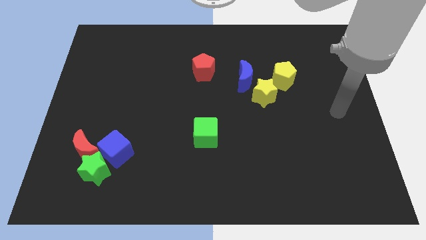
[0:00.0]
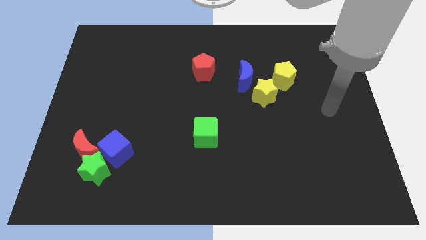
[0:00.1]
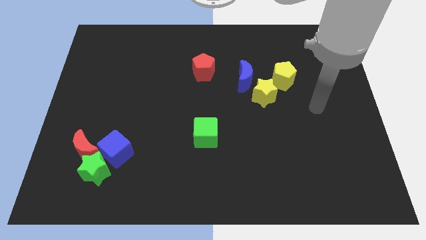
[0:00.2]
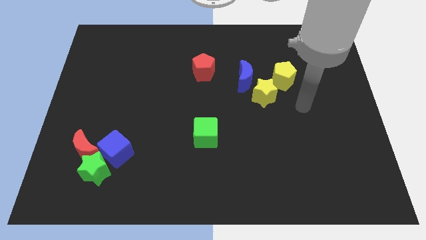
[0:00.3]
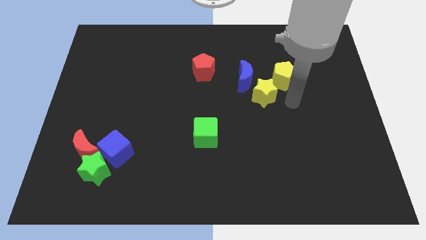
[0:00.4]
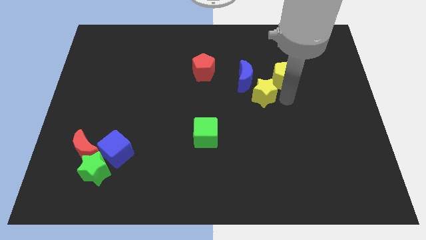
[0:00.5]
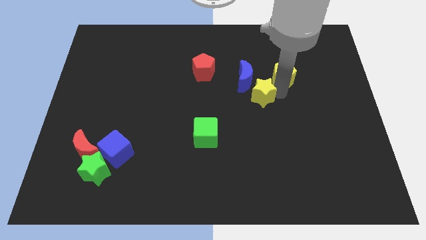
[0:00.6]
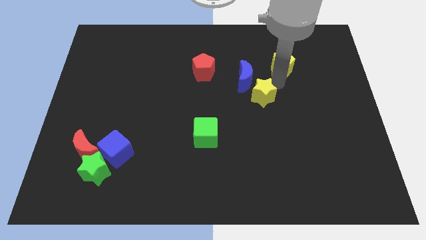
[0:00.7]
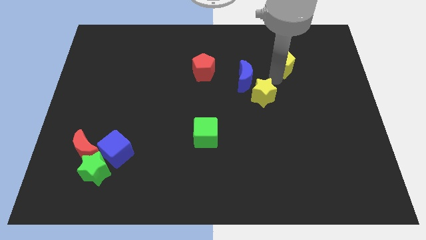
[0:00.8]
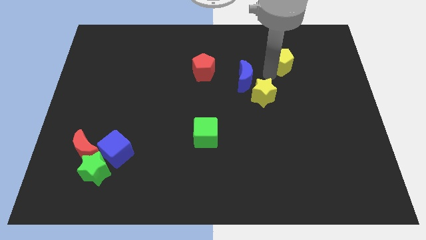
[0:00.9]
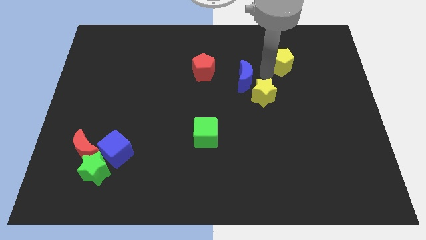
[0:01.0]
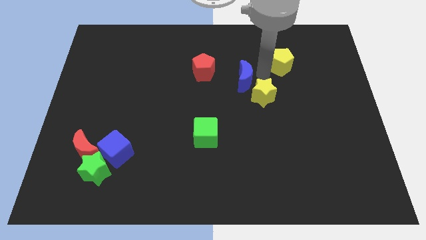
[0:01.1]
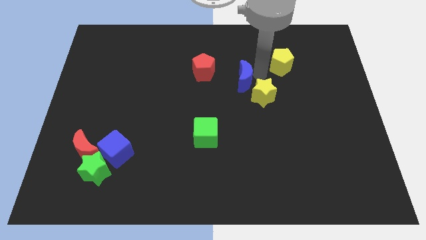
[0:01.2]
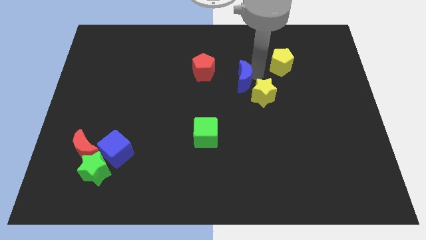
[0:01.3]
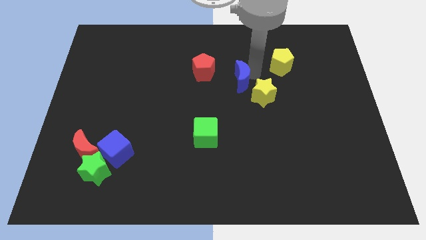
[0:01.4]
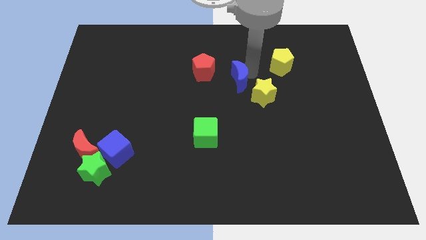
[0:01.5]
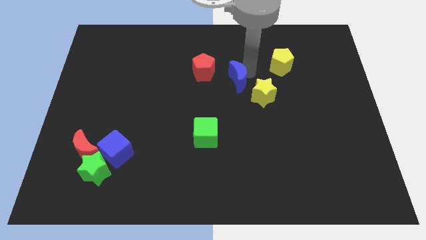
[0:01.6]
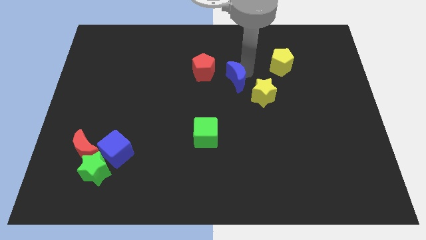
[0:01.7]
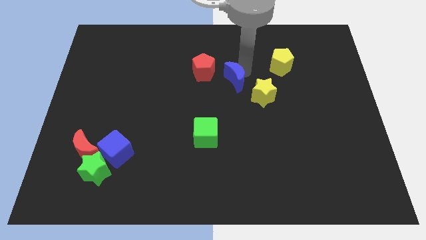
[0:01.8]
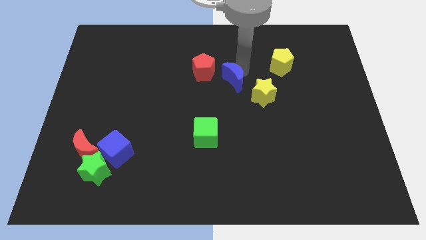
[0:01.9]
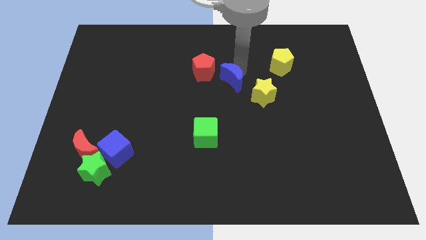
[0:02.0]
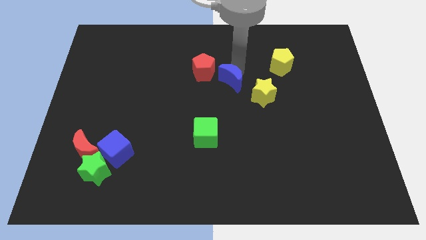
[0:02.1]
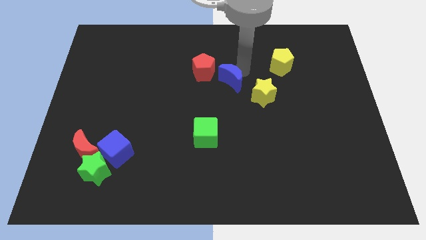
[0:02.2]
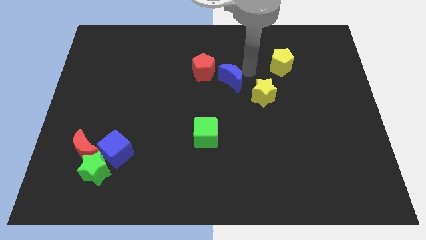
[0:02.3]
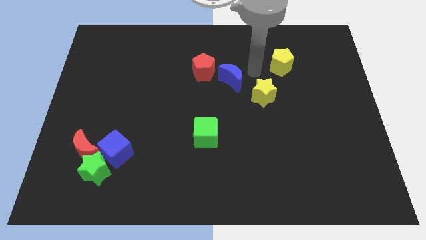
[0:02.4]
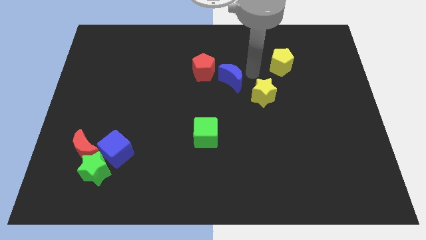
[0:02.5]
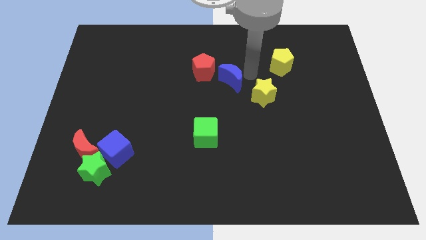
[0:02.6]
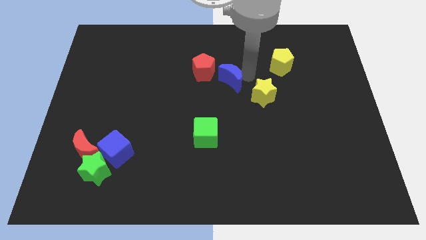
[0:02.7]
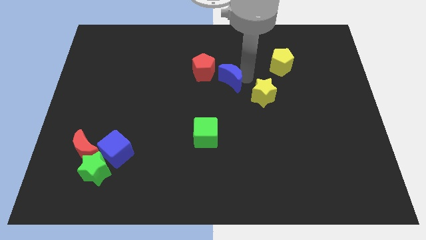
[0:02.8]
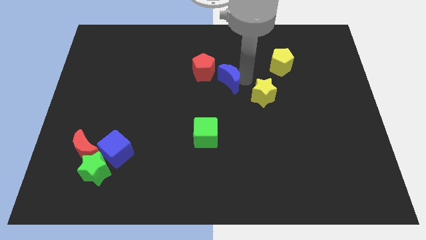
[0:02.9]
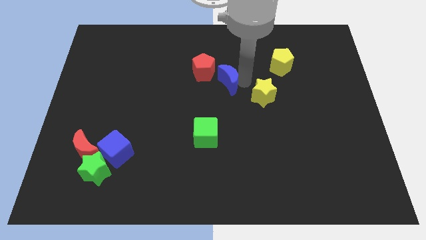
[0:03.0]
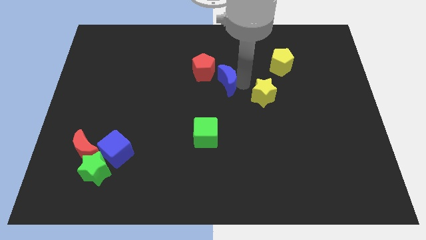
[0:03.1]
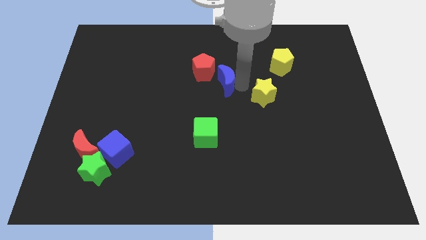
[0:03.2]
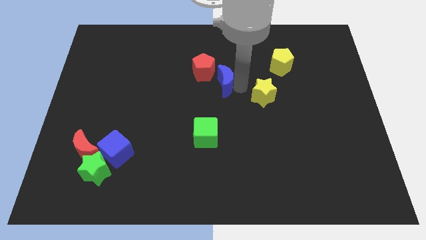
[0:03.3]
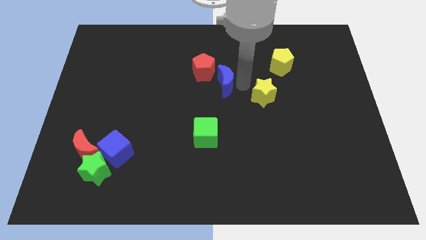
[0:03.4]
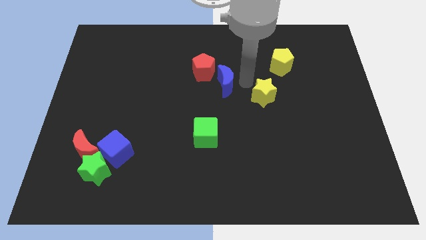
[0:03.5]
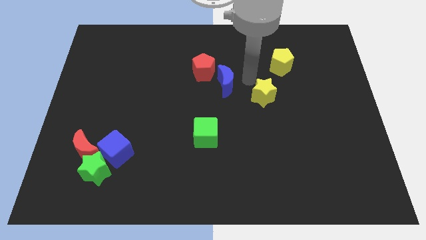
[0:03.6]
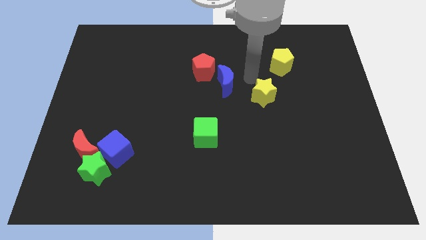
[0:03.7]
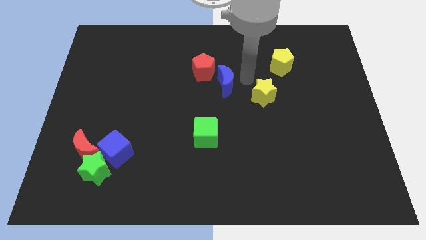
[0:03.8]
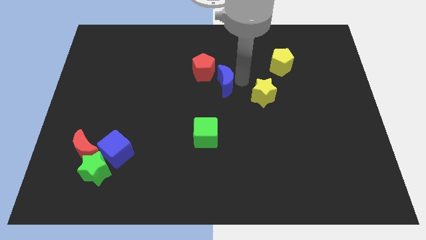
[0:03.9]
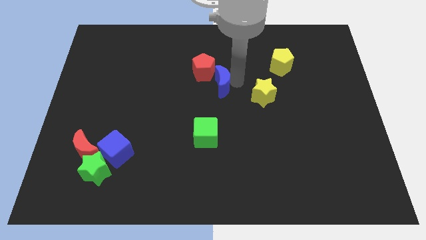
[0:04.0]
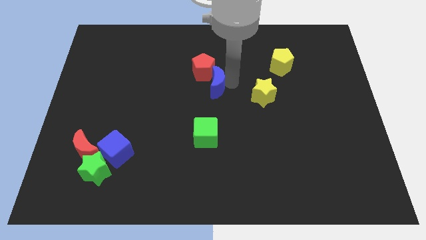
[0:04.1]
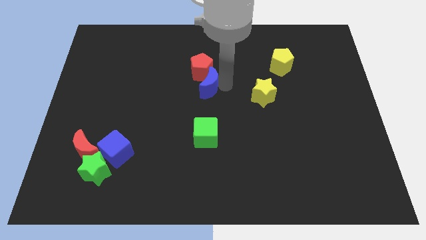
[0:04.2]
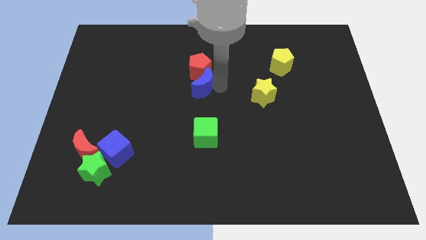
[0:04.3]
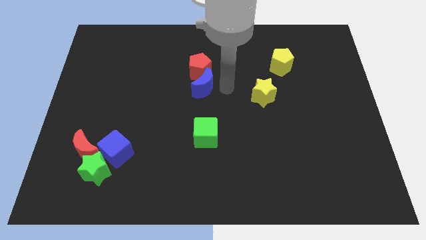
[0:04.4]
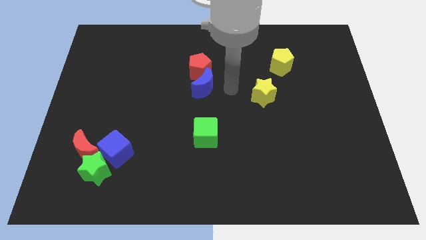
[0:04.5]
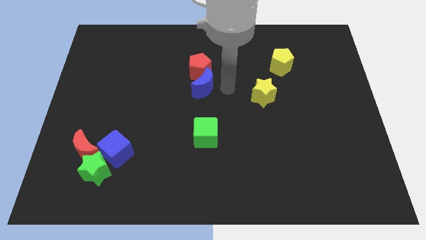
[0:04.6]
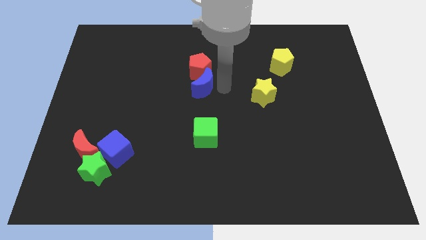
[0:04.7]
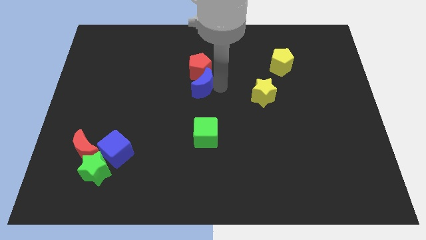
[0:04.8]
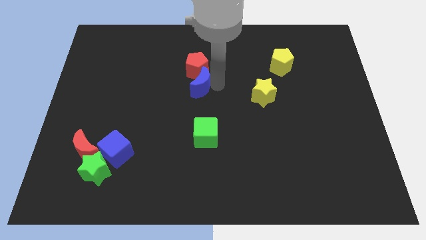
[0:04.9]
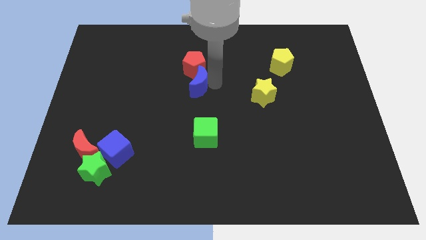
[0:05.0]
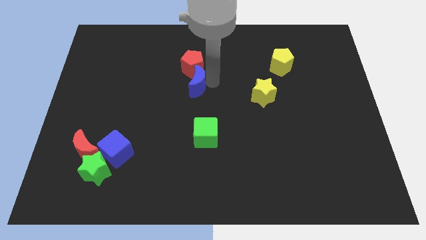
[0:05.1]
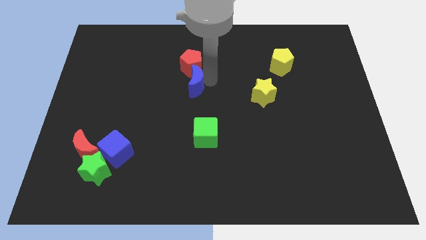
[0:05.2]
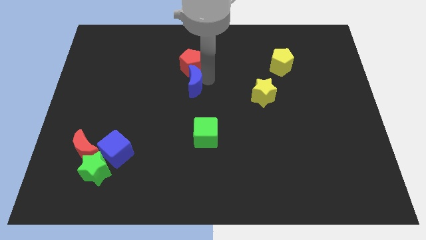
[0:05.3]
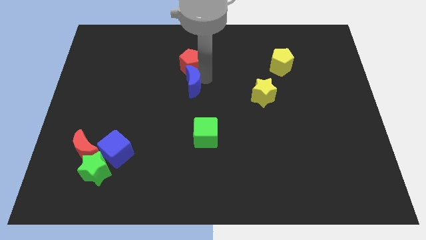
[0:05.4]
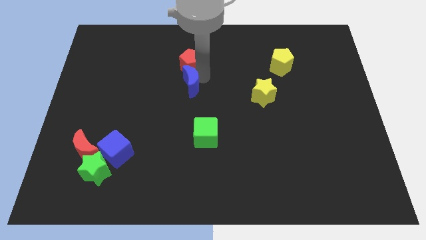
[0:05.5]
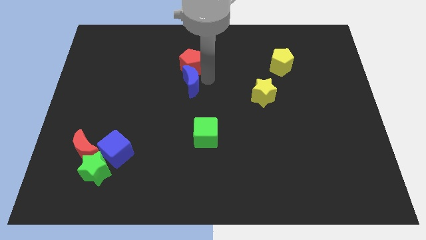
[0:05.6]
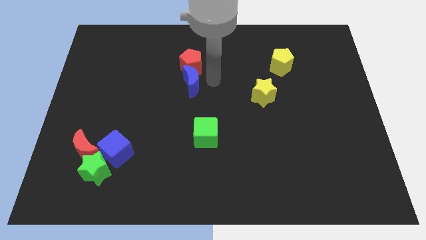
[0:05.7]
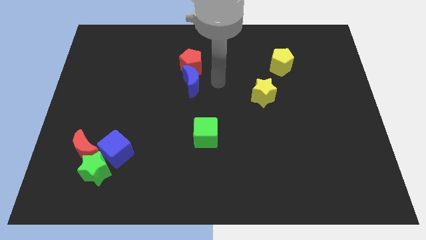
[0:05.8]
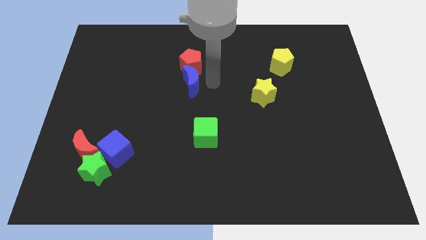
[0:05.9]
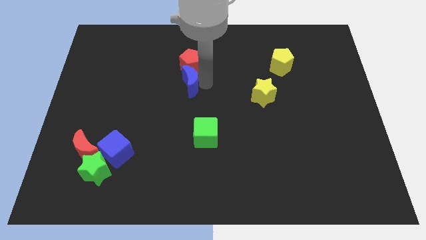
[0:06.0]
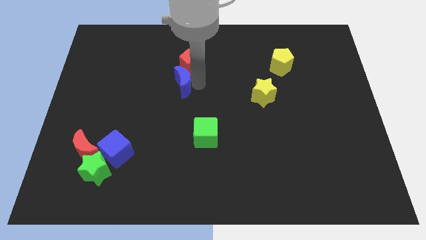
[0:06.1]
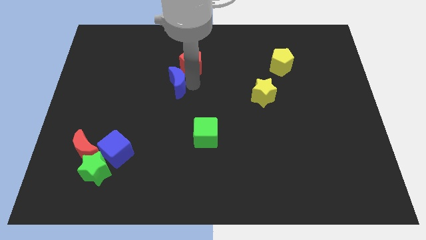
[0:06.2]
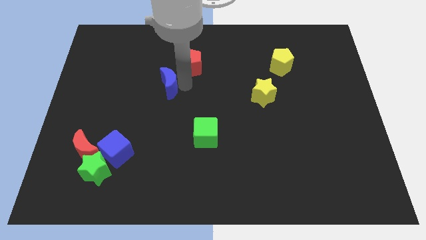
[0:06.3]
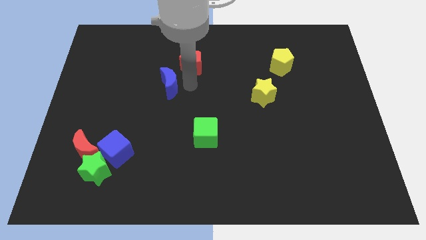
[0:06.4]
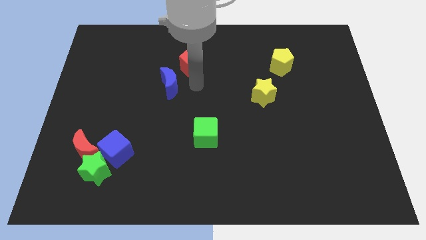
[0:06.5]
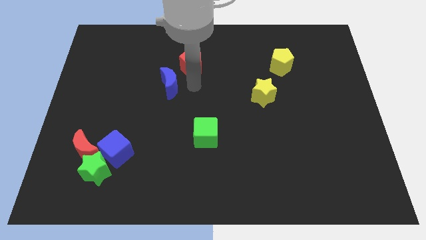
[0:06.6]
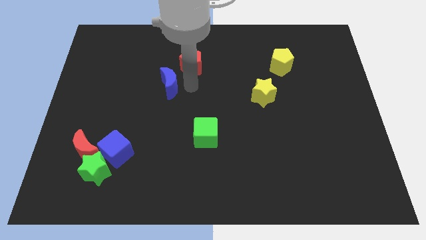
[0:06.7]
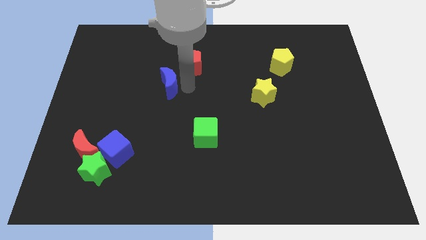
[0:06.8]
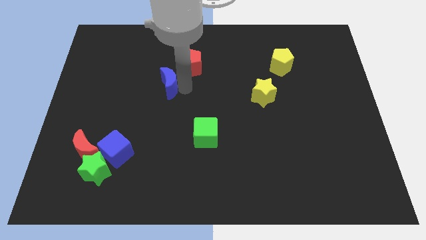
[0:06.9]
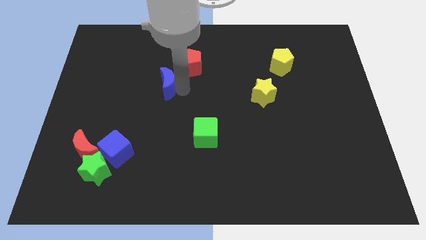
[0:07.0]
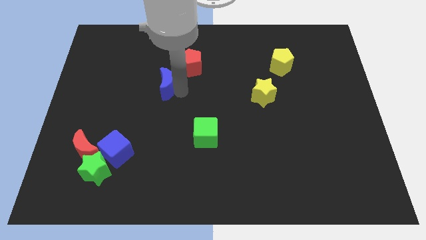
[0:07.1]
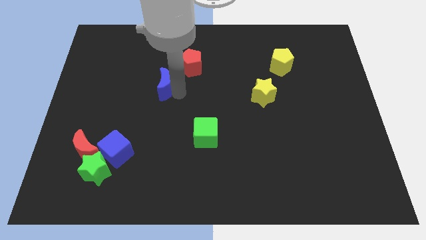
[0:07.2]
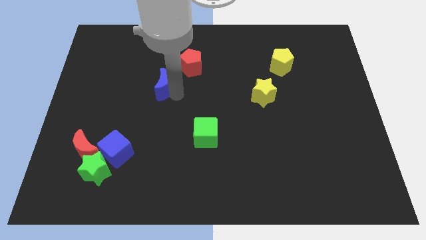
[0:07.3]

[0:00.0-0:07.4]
push the blue moon to the left

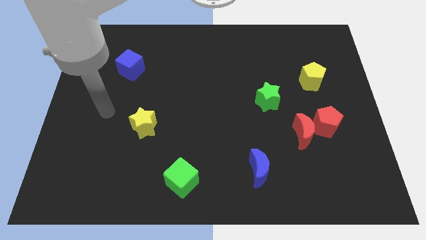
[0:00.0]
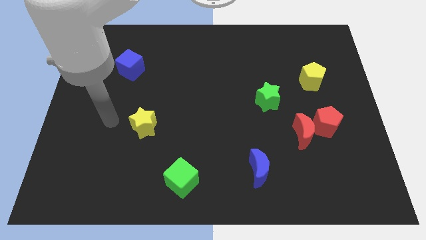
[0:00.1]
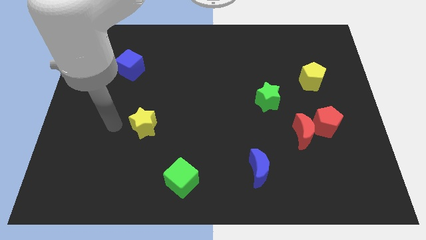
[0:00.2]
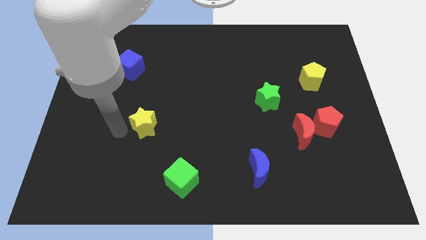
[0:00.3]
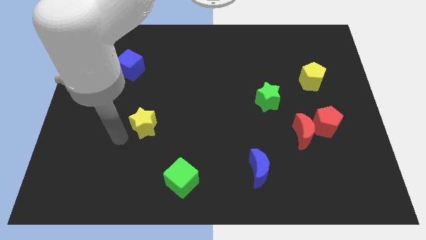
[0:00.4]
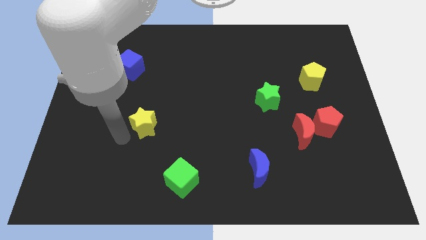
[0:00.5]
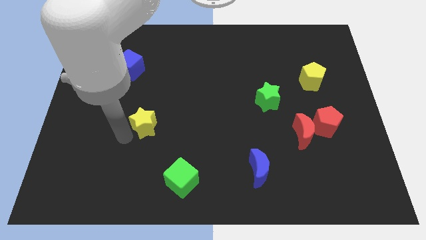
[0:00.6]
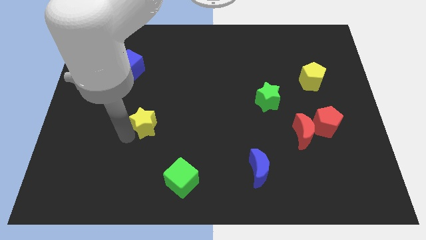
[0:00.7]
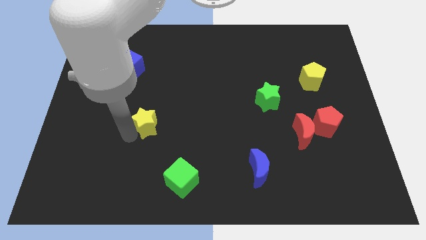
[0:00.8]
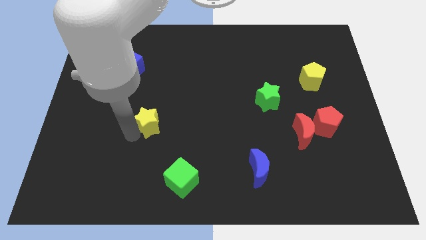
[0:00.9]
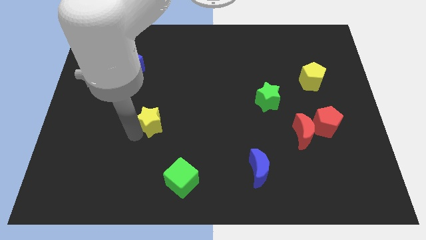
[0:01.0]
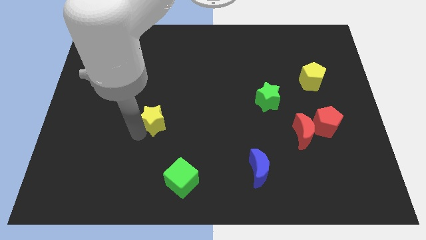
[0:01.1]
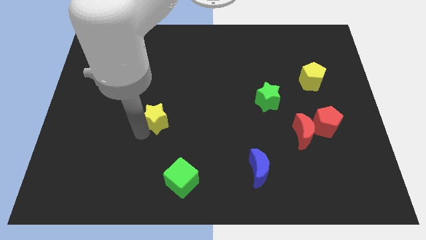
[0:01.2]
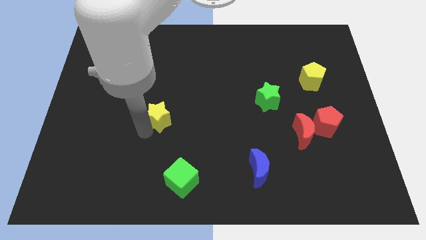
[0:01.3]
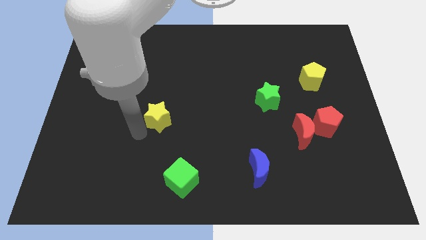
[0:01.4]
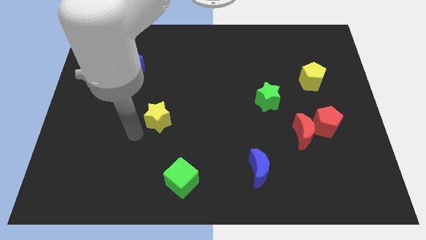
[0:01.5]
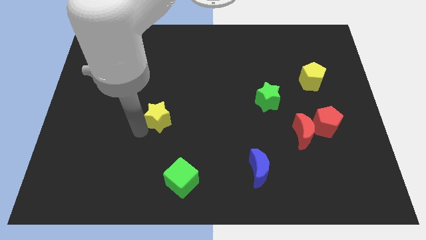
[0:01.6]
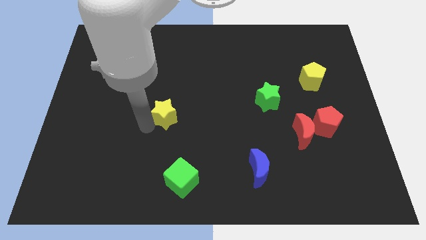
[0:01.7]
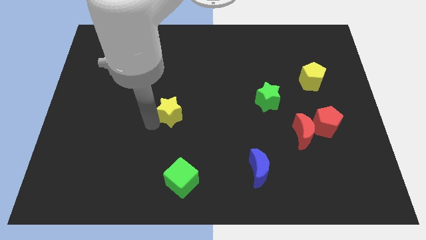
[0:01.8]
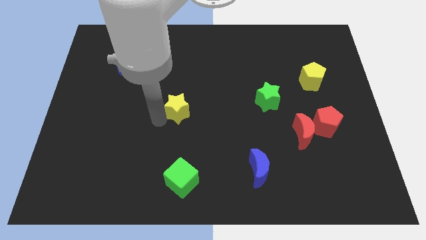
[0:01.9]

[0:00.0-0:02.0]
move the yellow star a little upwards and to the right diagonally
